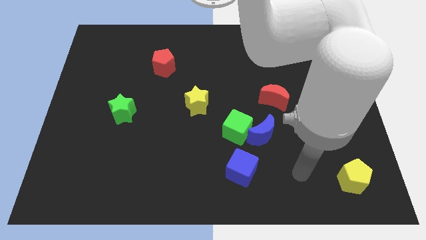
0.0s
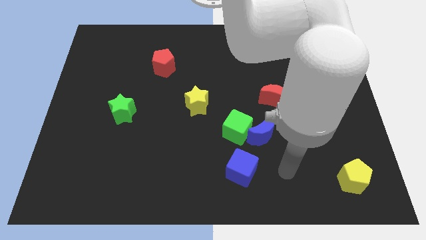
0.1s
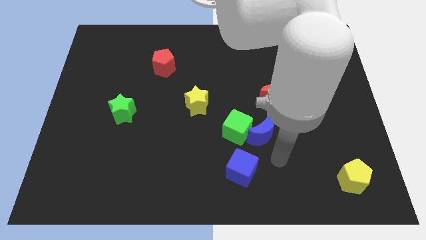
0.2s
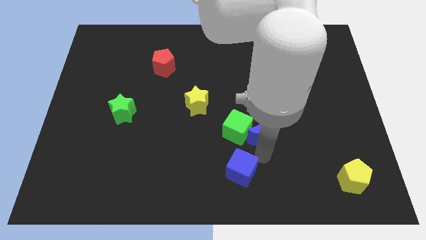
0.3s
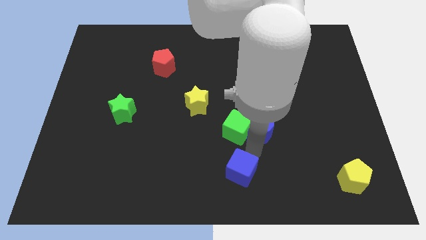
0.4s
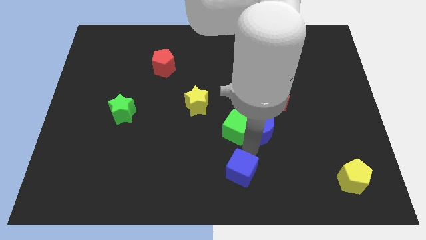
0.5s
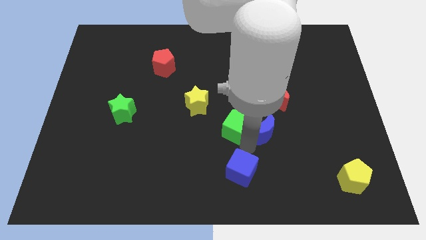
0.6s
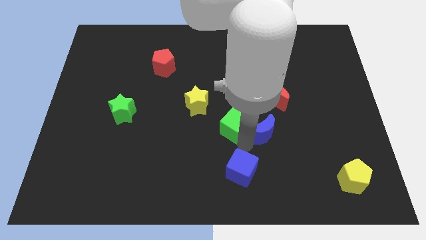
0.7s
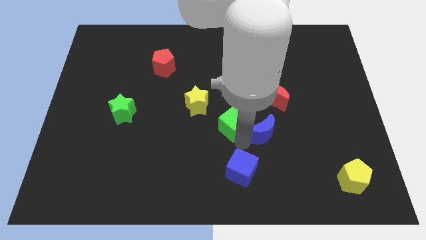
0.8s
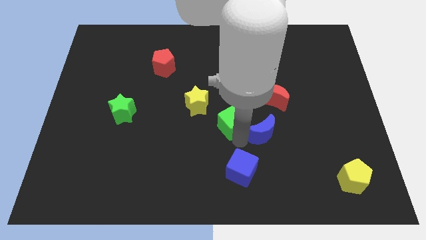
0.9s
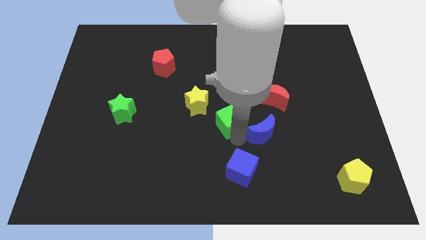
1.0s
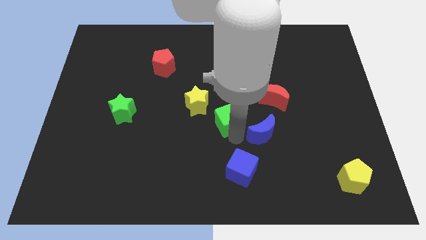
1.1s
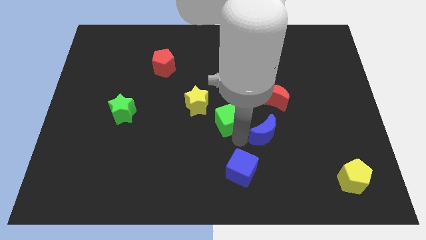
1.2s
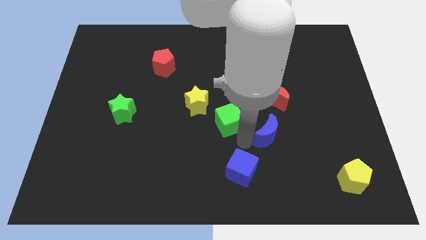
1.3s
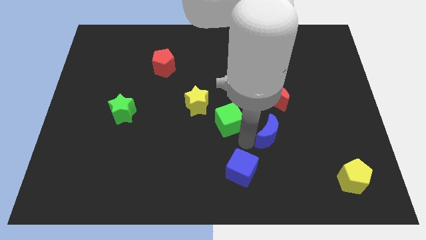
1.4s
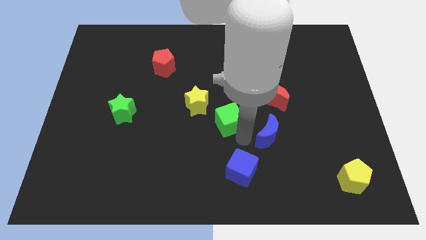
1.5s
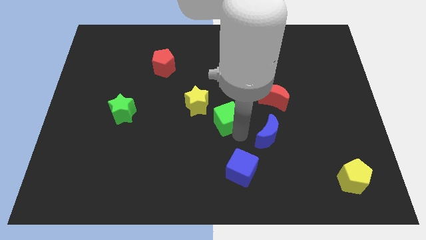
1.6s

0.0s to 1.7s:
move the green cube away from the blue moon and blue cube

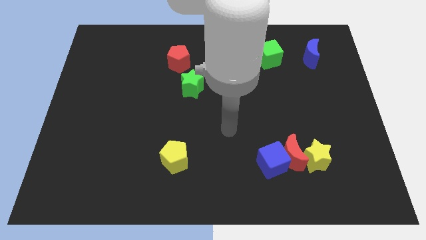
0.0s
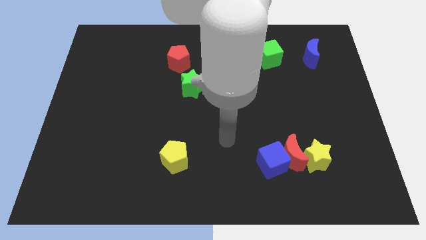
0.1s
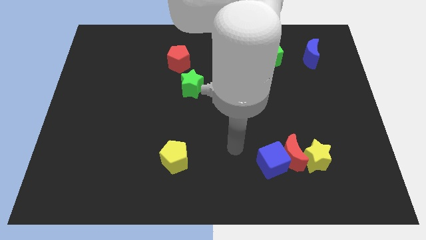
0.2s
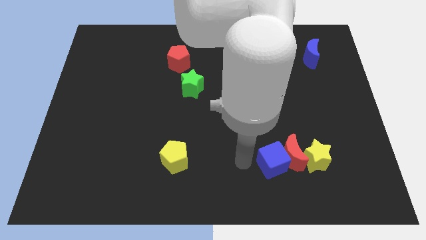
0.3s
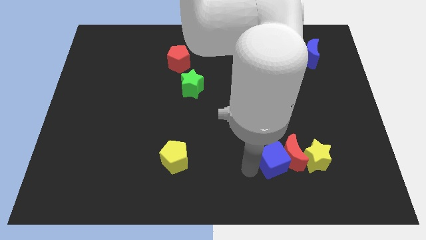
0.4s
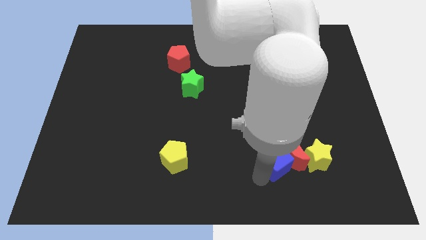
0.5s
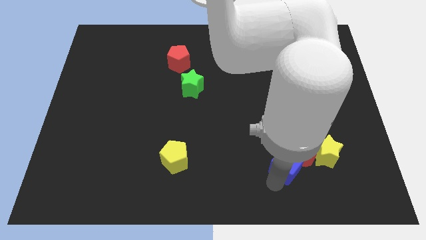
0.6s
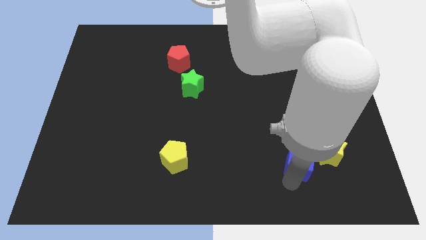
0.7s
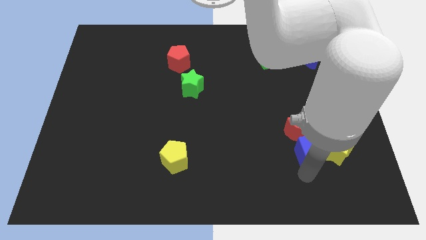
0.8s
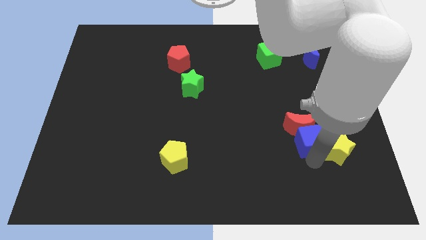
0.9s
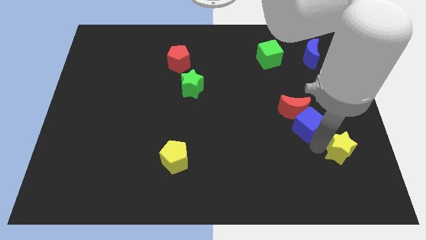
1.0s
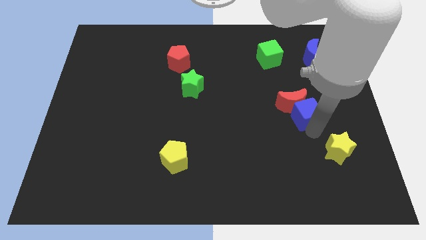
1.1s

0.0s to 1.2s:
pull the red moon apart from the blue cube and yellow star

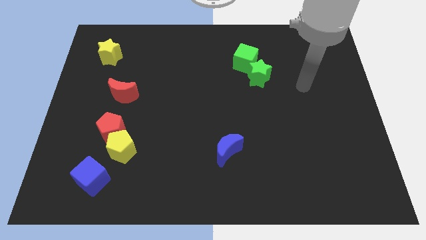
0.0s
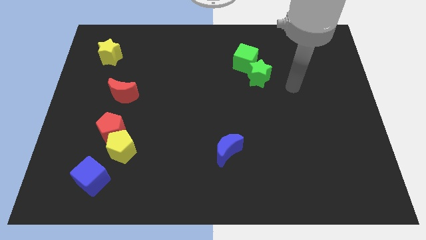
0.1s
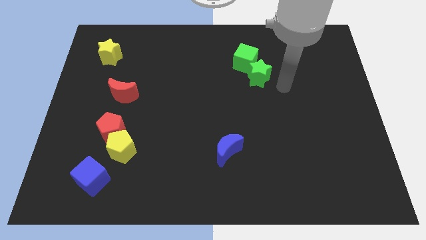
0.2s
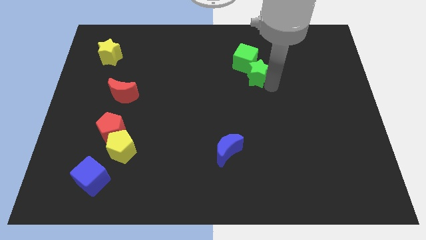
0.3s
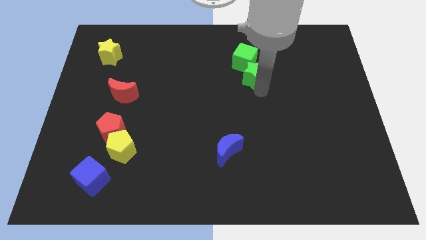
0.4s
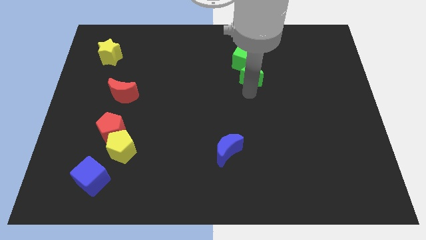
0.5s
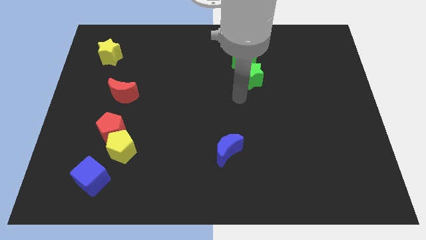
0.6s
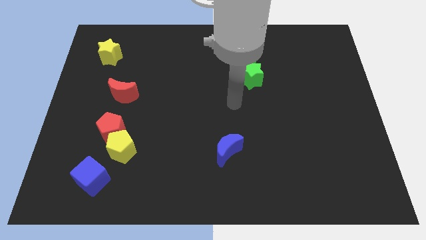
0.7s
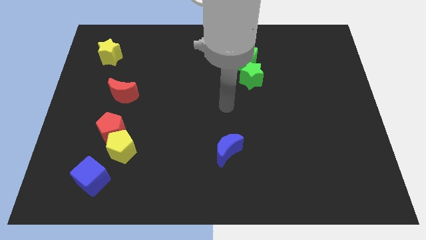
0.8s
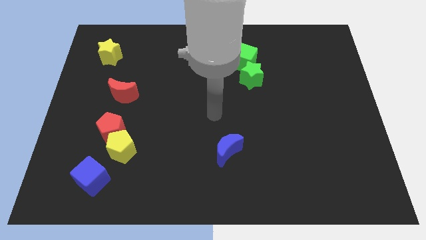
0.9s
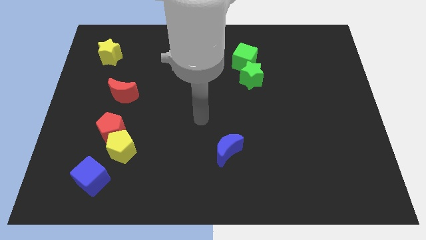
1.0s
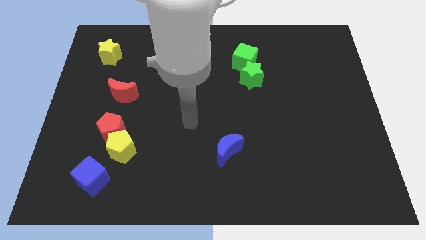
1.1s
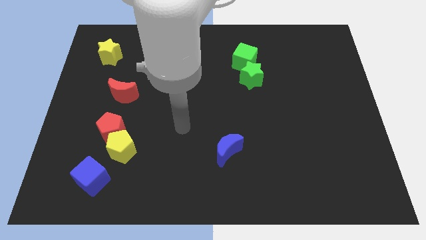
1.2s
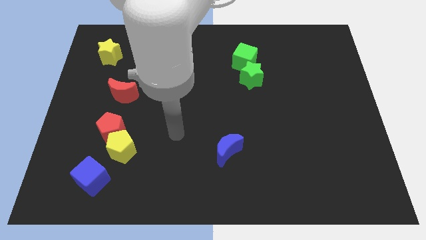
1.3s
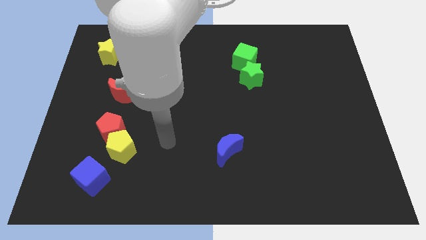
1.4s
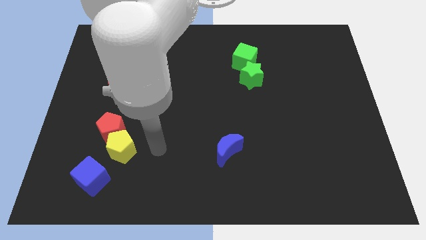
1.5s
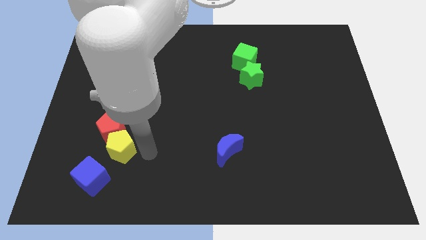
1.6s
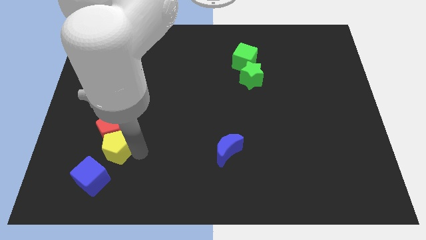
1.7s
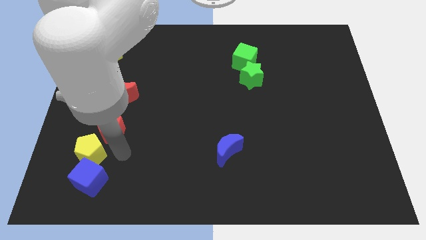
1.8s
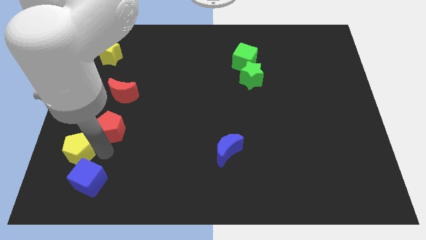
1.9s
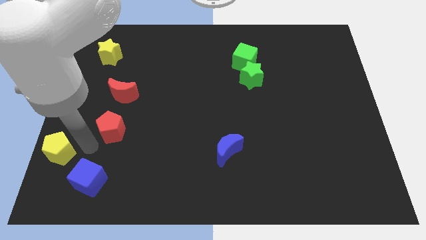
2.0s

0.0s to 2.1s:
pull the red pentagon apart from the yellow pentagon

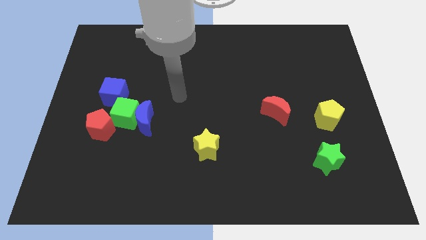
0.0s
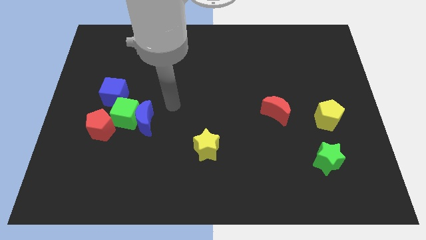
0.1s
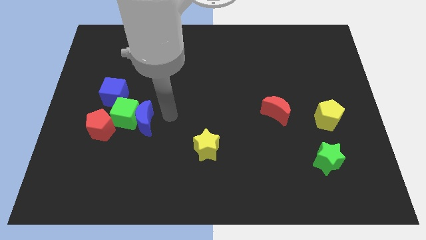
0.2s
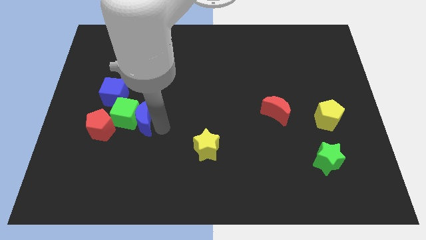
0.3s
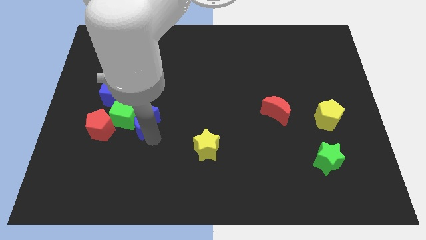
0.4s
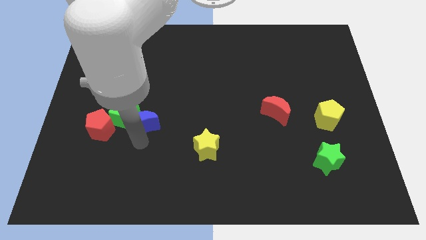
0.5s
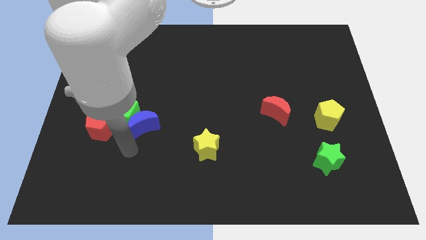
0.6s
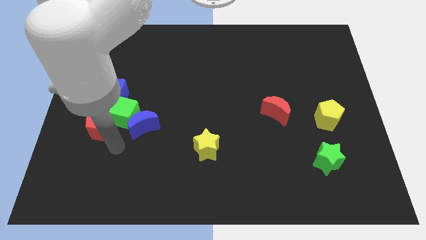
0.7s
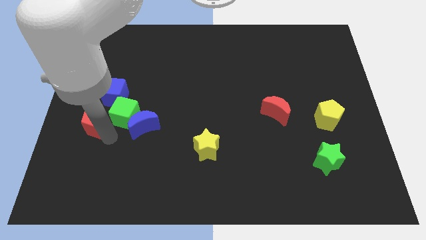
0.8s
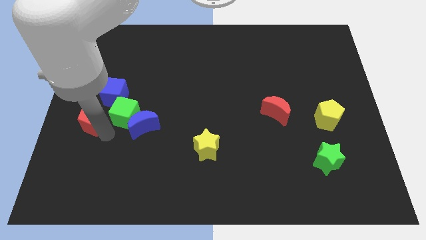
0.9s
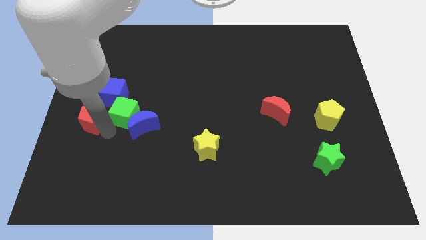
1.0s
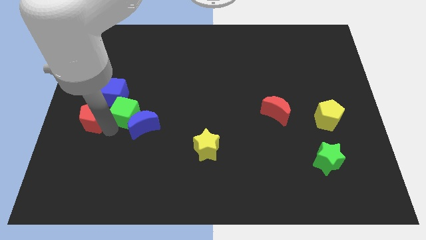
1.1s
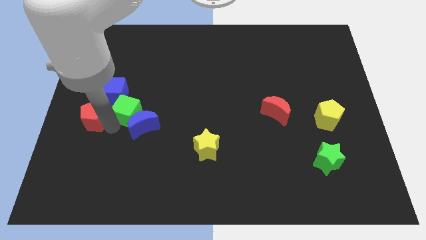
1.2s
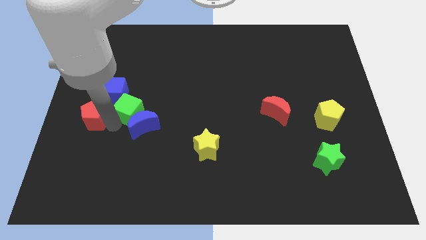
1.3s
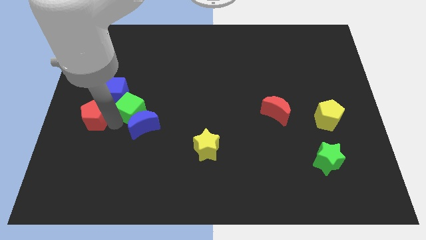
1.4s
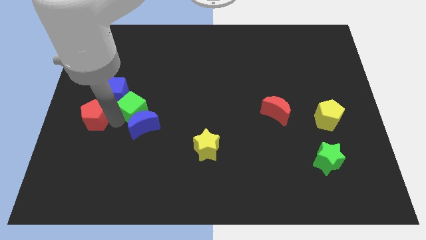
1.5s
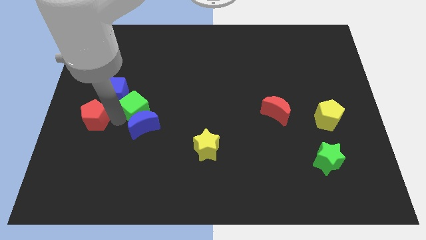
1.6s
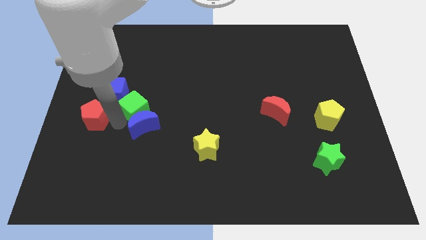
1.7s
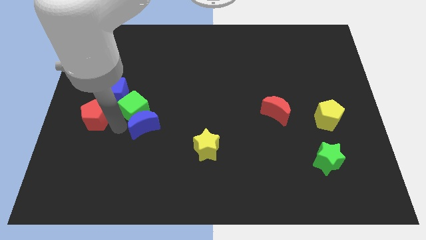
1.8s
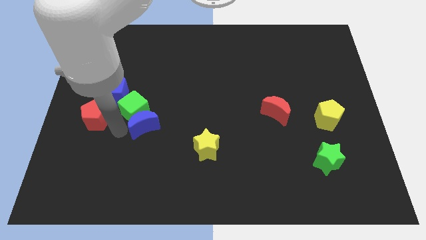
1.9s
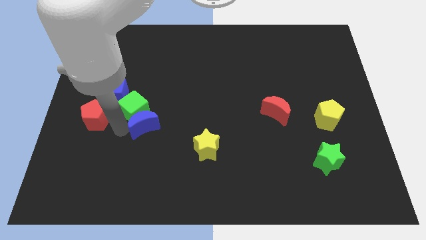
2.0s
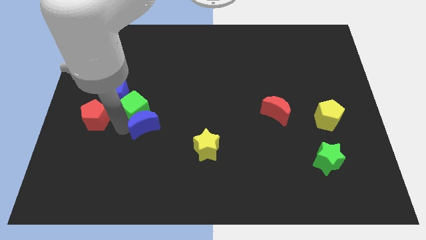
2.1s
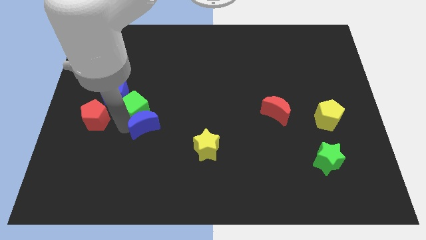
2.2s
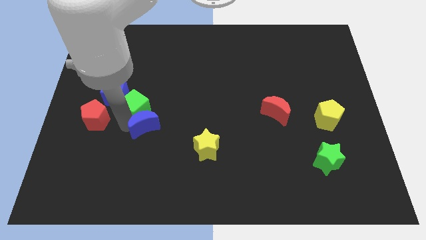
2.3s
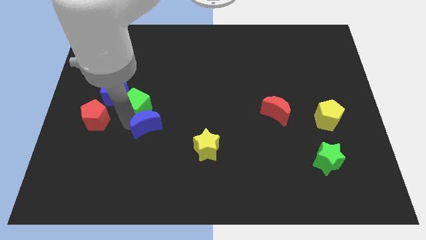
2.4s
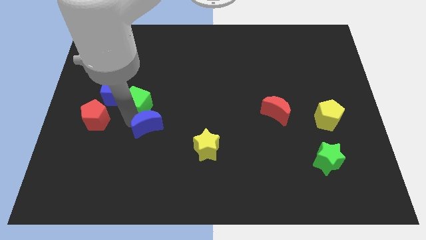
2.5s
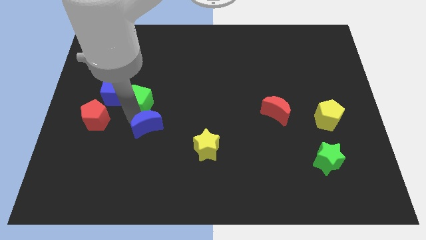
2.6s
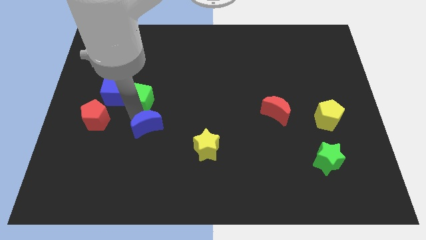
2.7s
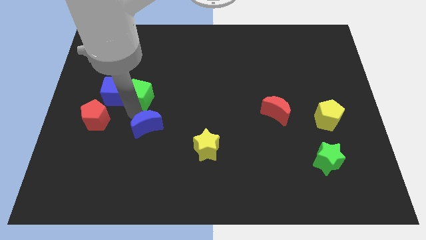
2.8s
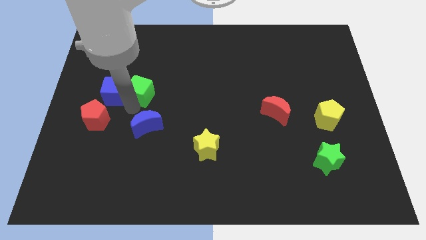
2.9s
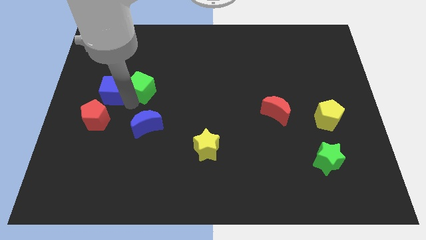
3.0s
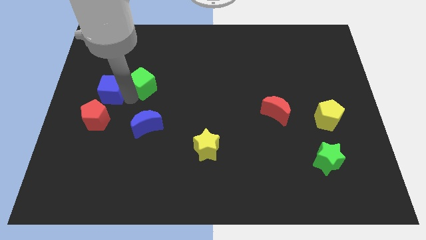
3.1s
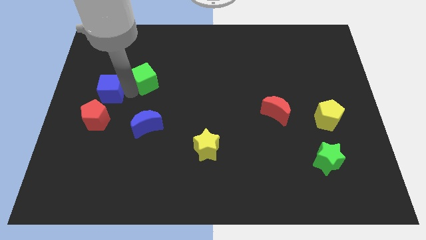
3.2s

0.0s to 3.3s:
move the green cube away from the blue moon, red pentagon, and blue cube

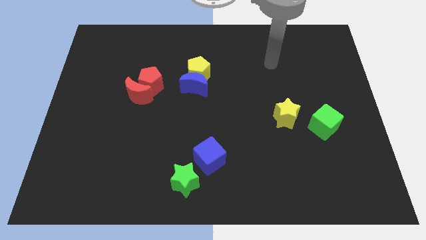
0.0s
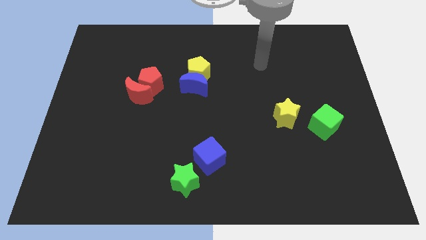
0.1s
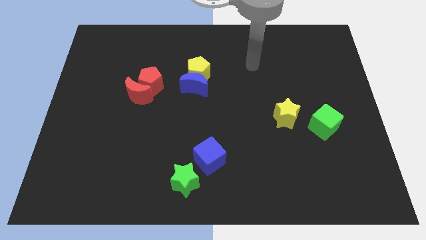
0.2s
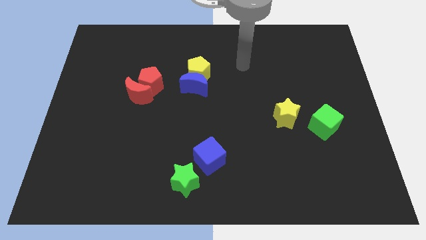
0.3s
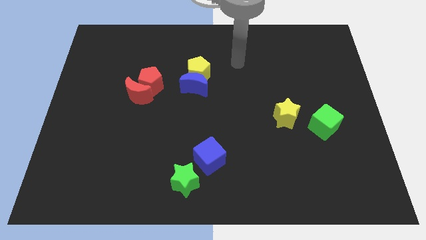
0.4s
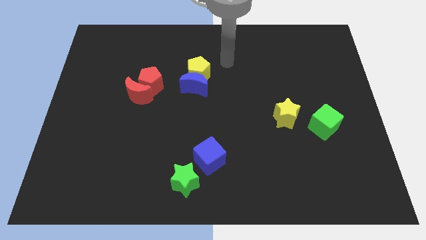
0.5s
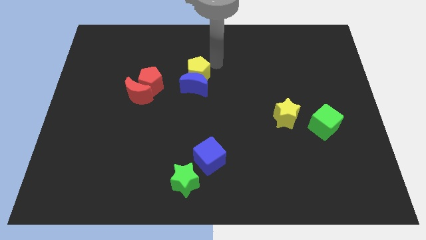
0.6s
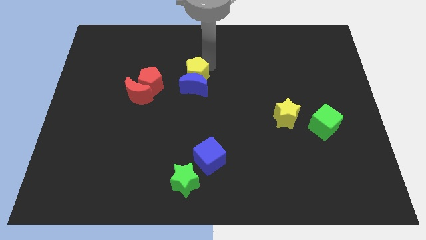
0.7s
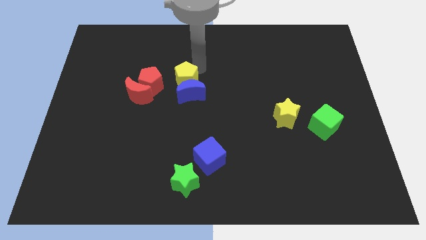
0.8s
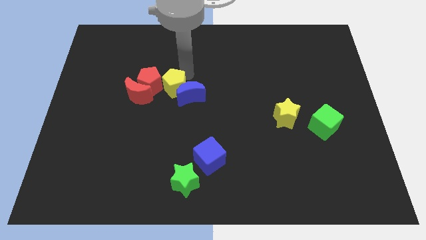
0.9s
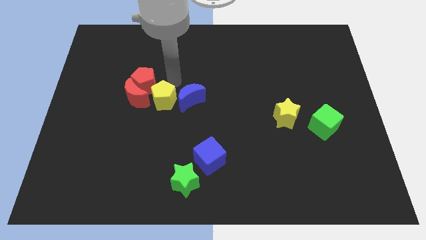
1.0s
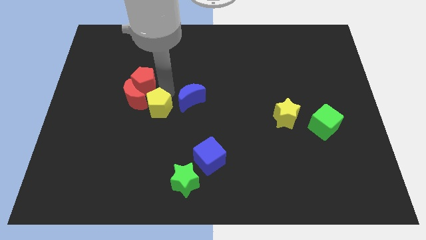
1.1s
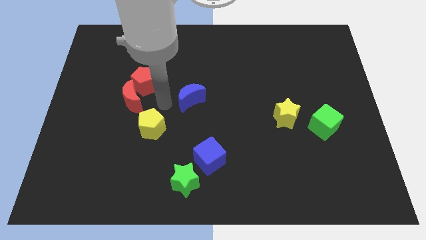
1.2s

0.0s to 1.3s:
separate the blue moon from the yellow pentagon
